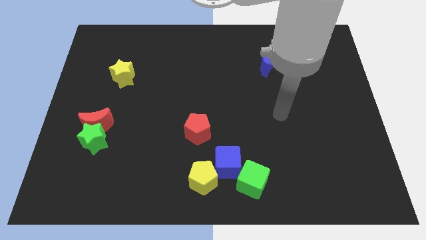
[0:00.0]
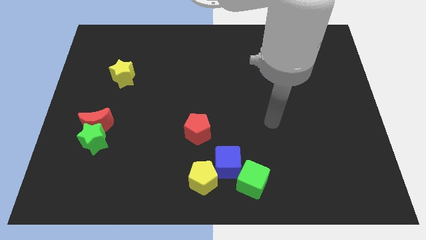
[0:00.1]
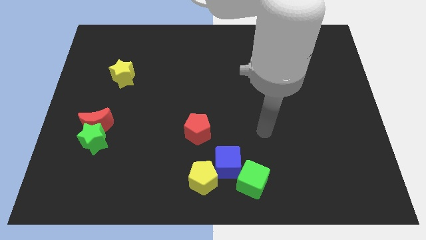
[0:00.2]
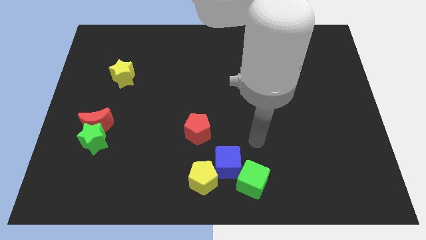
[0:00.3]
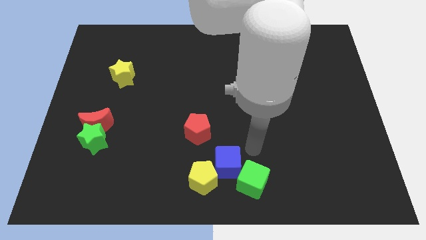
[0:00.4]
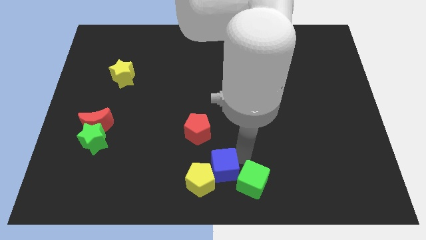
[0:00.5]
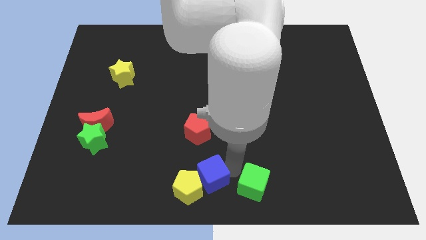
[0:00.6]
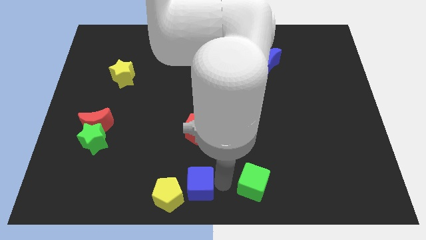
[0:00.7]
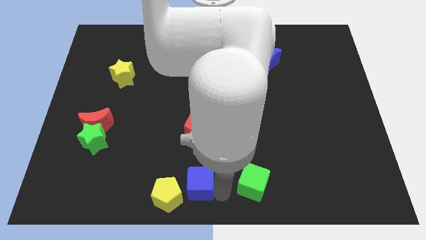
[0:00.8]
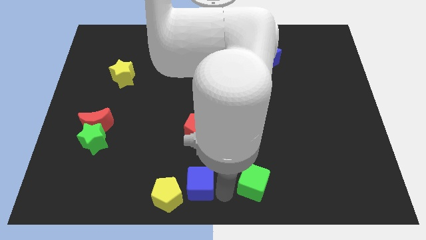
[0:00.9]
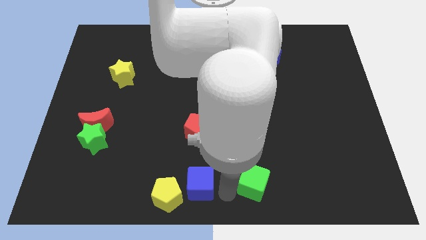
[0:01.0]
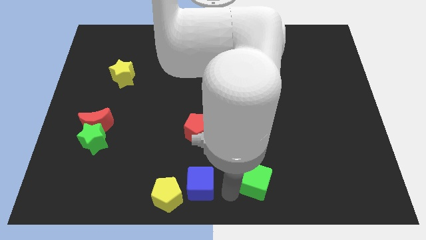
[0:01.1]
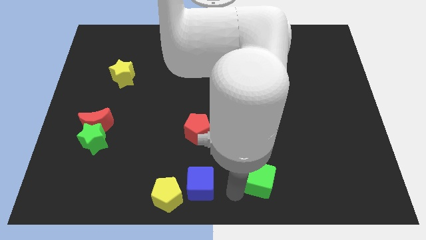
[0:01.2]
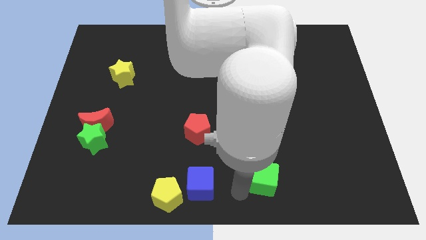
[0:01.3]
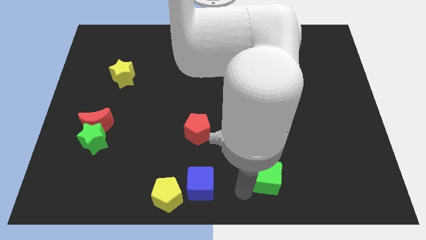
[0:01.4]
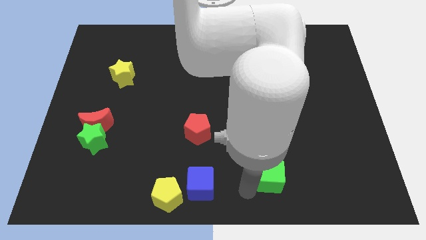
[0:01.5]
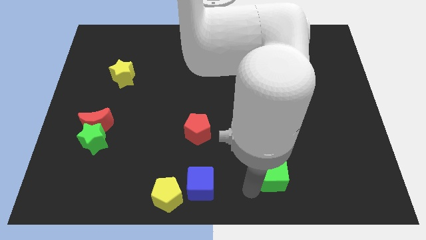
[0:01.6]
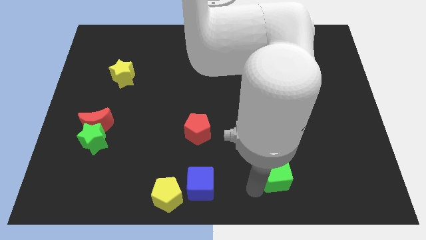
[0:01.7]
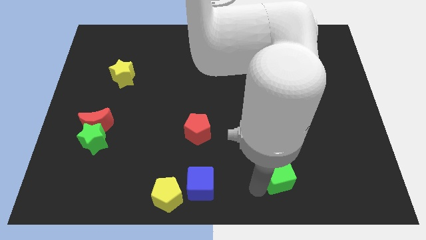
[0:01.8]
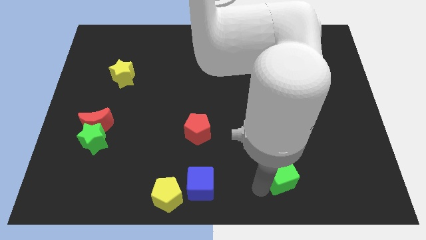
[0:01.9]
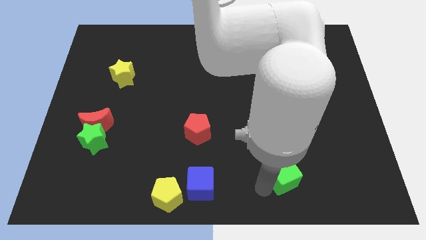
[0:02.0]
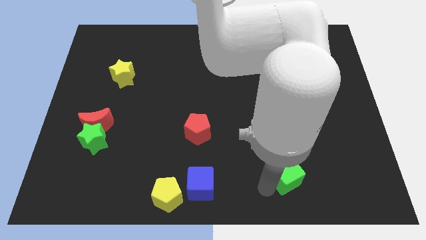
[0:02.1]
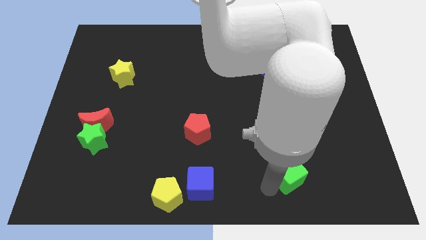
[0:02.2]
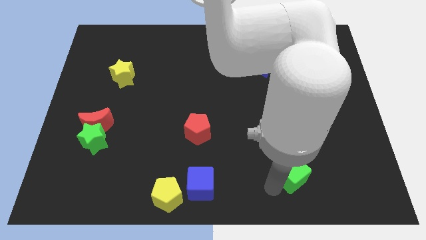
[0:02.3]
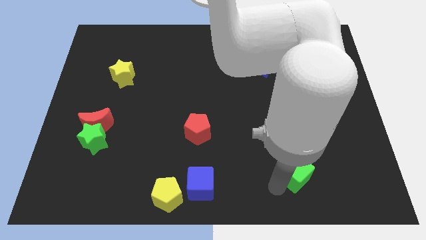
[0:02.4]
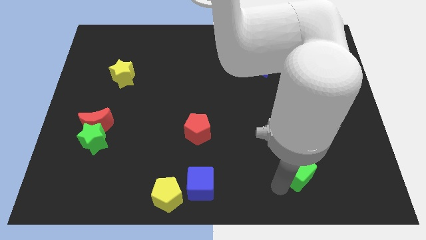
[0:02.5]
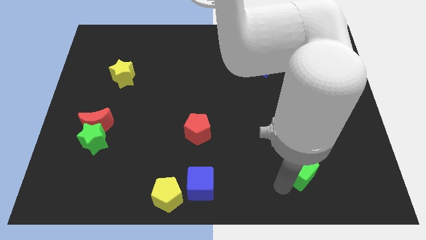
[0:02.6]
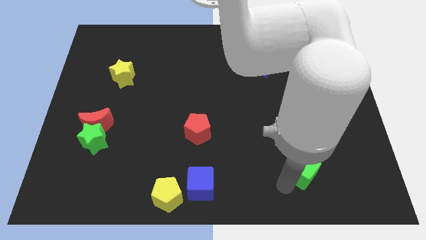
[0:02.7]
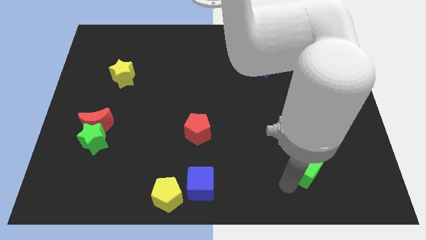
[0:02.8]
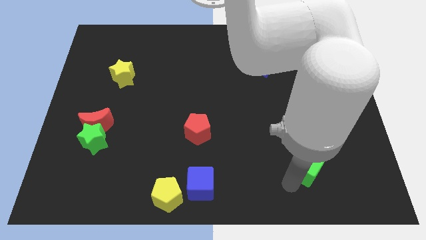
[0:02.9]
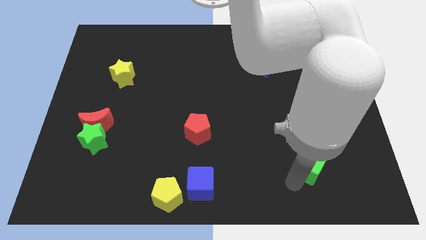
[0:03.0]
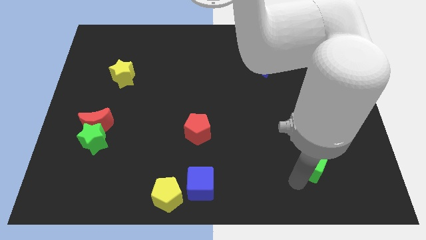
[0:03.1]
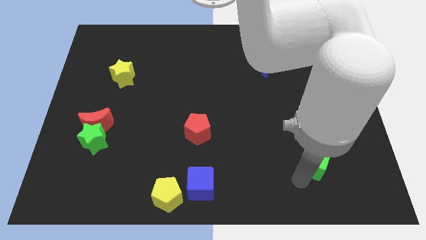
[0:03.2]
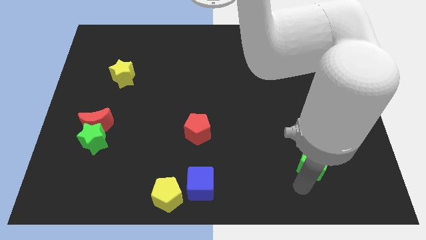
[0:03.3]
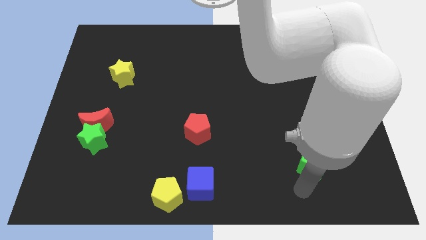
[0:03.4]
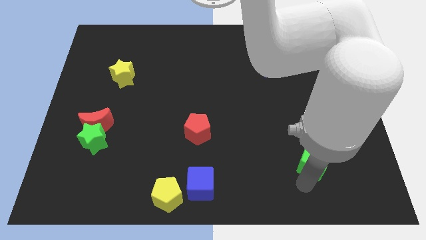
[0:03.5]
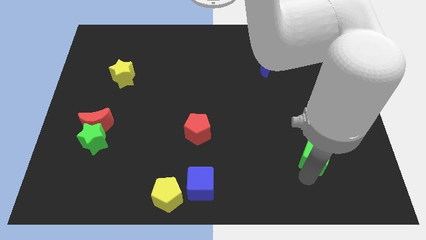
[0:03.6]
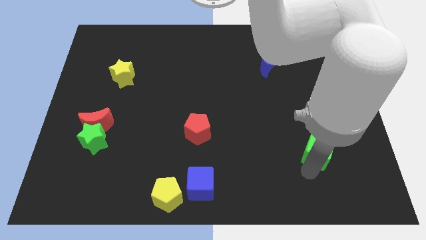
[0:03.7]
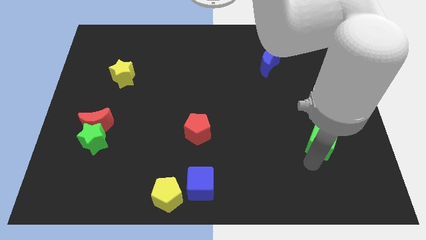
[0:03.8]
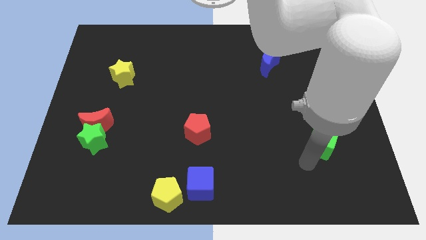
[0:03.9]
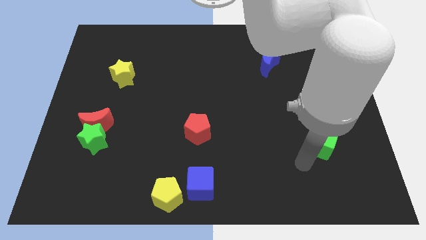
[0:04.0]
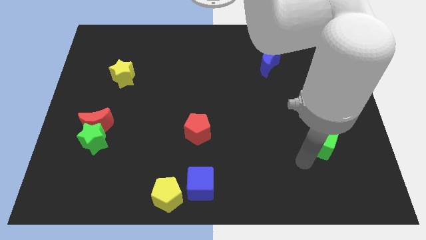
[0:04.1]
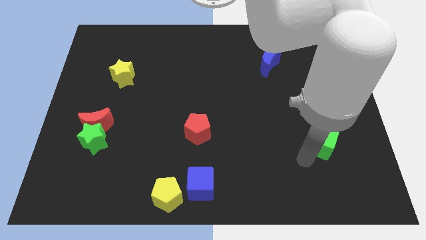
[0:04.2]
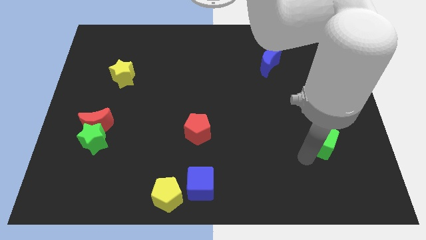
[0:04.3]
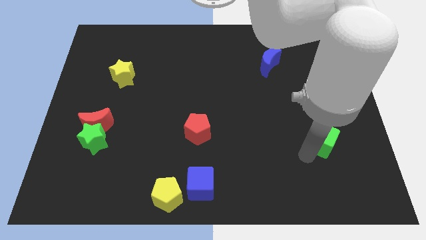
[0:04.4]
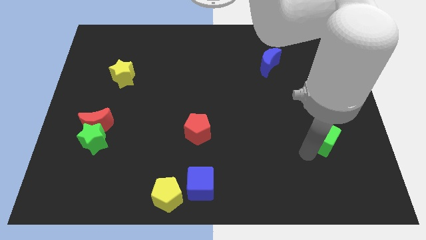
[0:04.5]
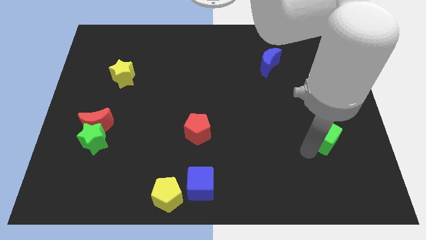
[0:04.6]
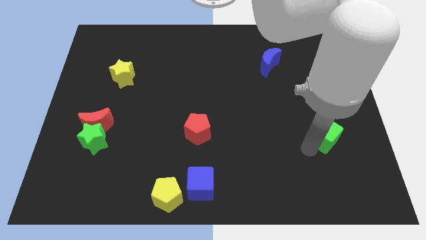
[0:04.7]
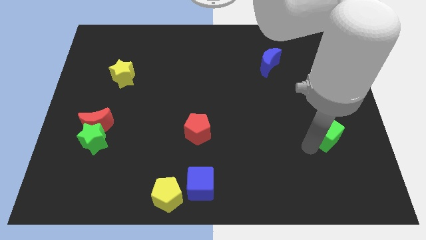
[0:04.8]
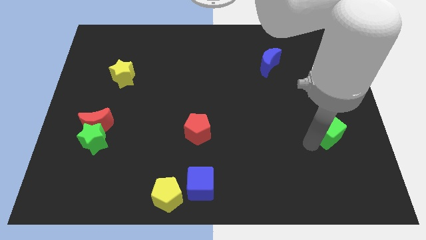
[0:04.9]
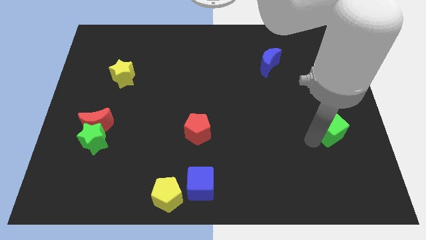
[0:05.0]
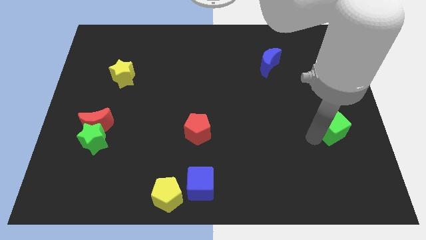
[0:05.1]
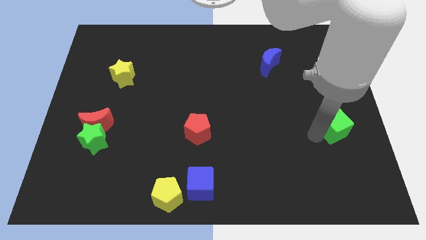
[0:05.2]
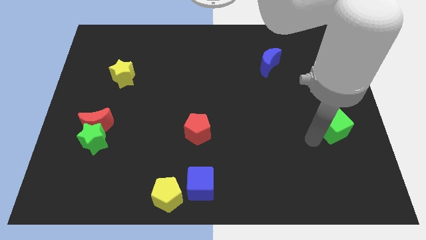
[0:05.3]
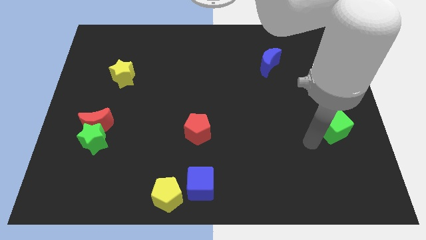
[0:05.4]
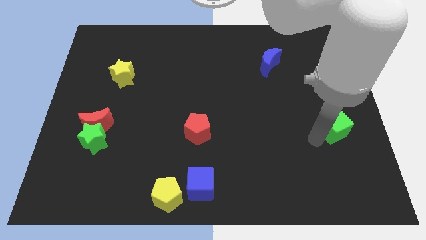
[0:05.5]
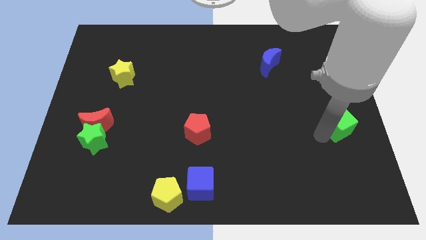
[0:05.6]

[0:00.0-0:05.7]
put the green cube to the right side of the board
